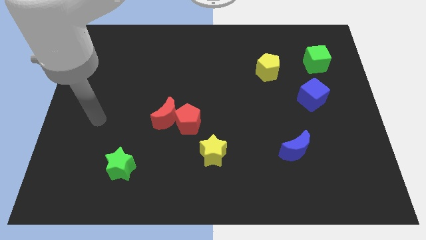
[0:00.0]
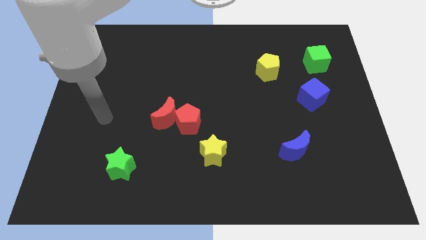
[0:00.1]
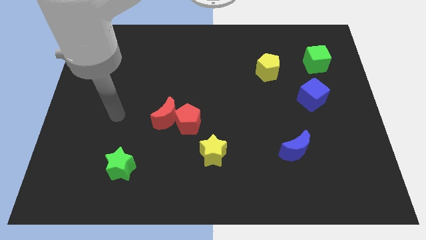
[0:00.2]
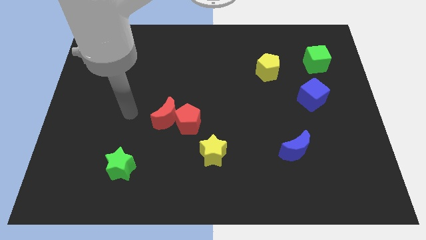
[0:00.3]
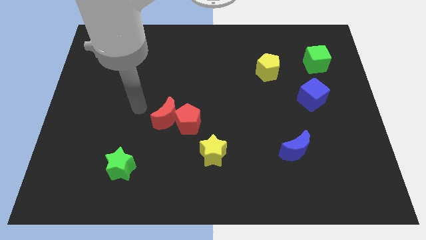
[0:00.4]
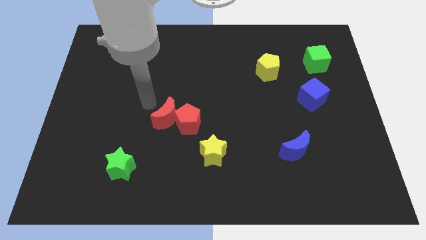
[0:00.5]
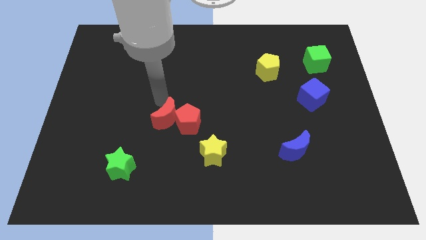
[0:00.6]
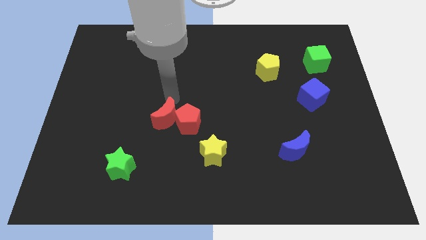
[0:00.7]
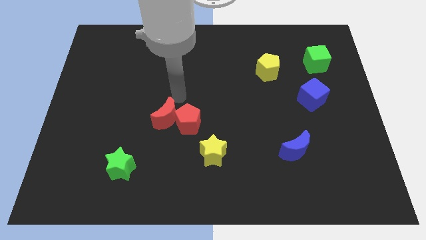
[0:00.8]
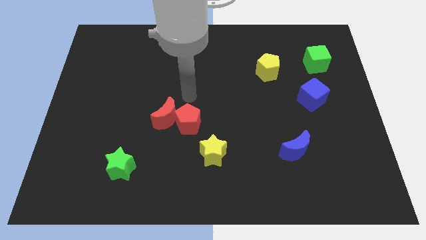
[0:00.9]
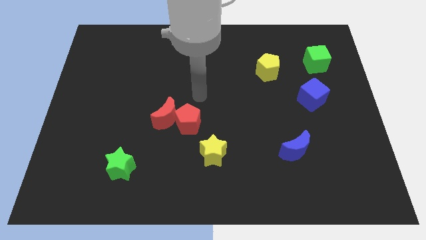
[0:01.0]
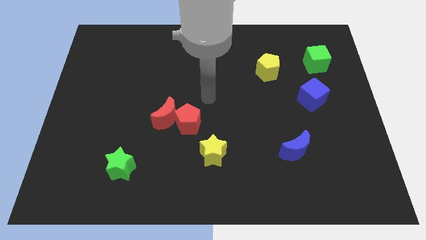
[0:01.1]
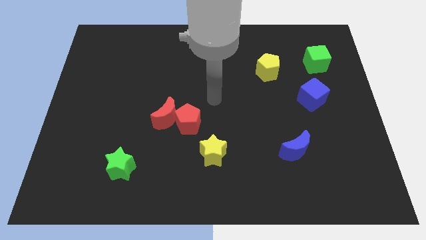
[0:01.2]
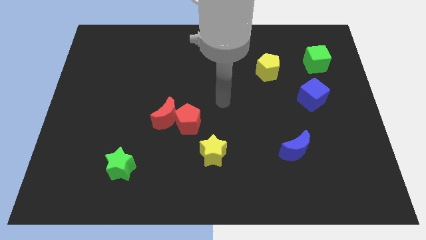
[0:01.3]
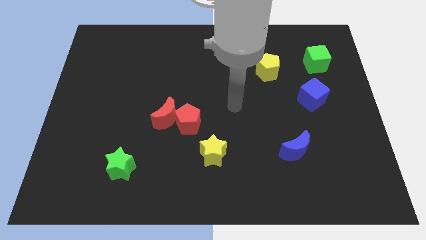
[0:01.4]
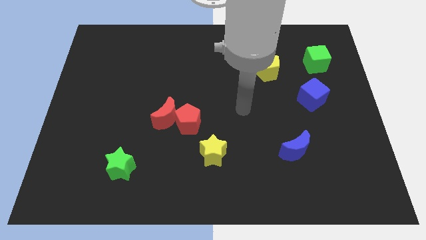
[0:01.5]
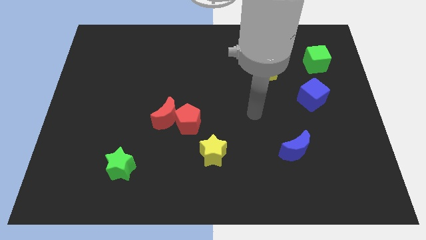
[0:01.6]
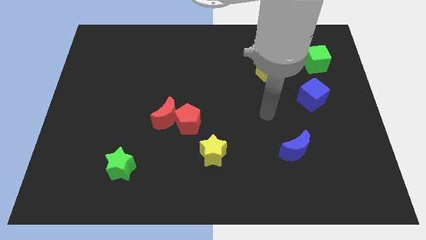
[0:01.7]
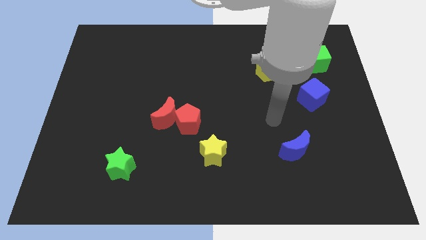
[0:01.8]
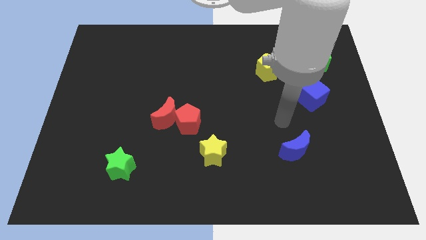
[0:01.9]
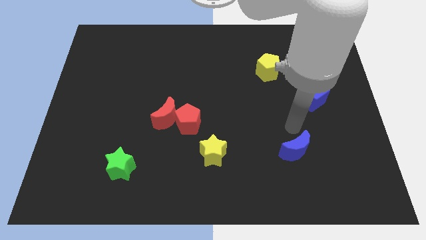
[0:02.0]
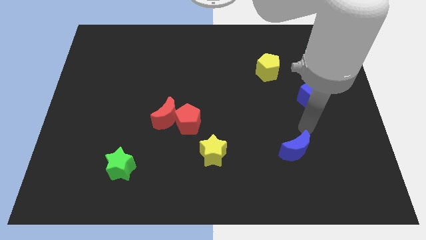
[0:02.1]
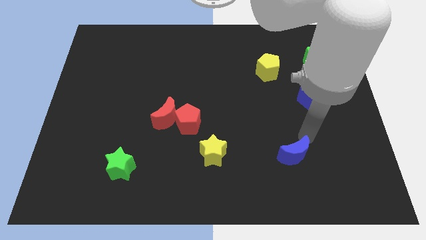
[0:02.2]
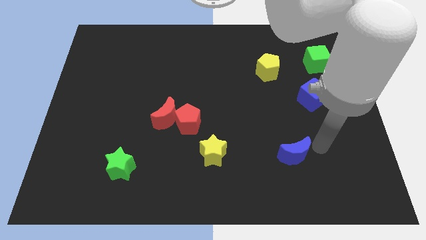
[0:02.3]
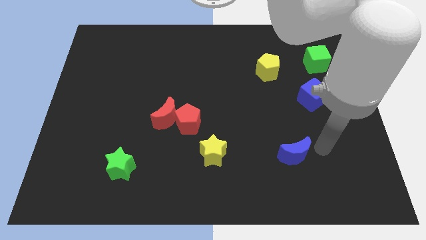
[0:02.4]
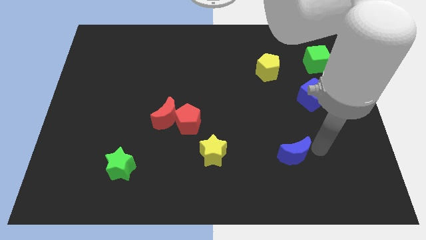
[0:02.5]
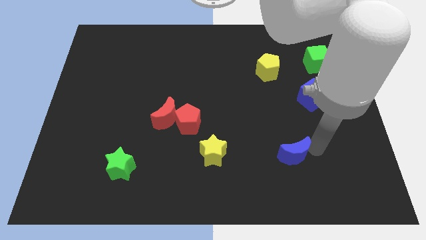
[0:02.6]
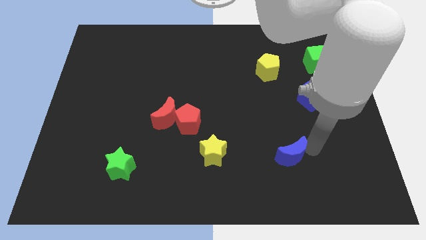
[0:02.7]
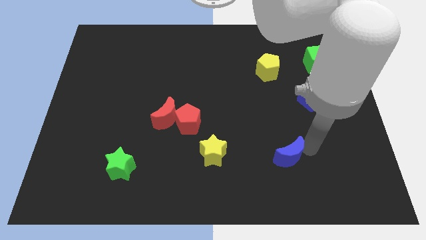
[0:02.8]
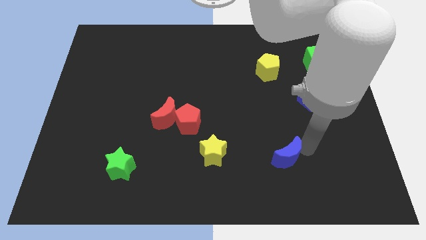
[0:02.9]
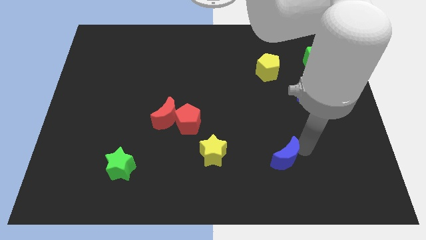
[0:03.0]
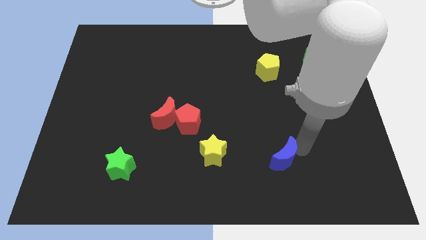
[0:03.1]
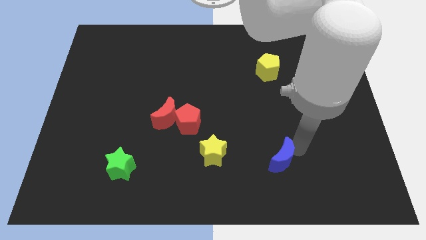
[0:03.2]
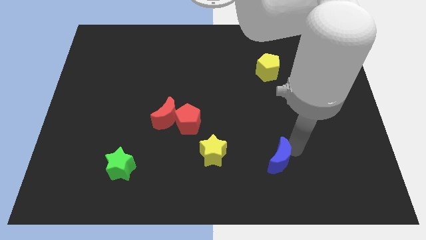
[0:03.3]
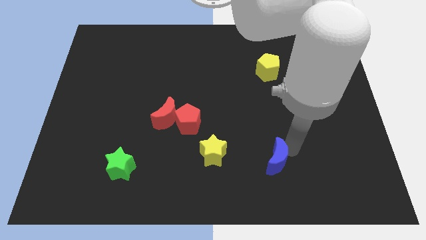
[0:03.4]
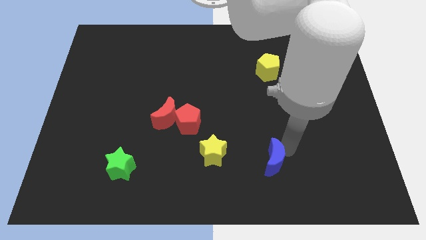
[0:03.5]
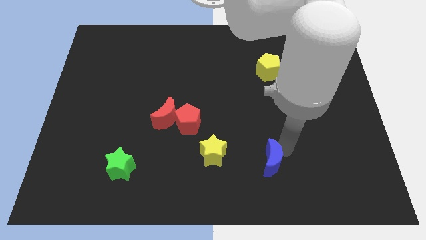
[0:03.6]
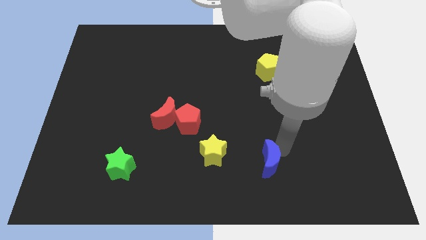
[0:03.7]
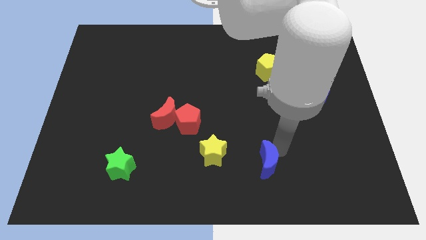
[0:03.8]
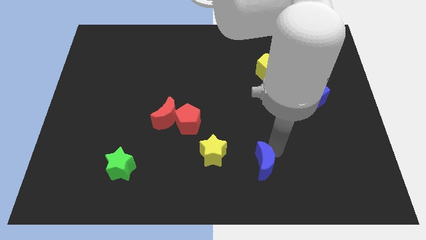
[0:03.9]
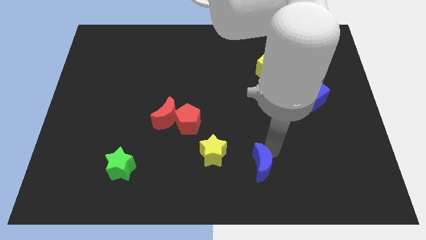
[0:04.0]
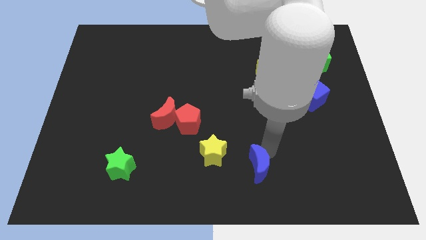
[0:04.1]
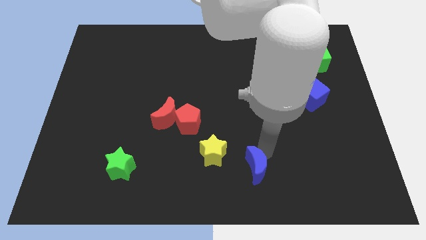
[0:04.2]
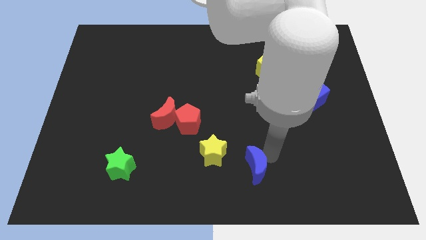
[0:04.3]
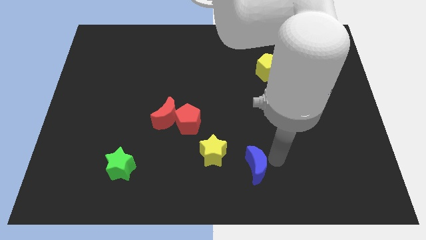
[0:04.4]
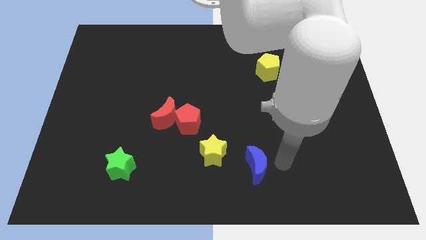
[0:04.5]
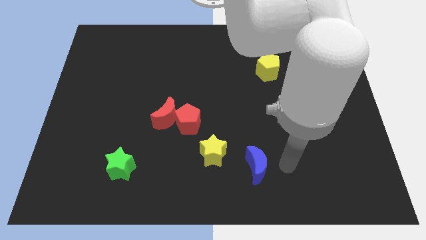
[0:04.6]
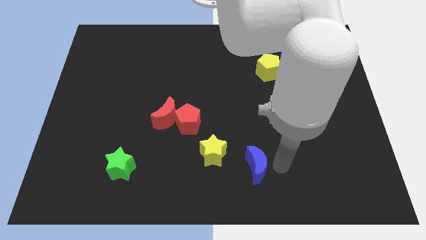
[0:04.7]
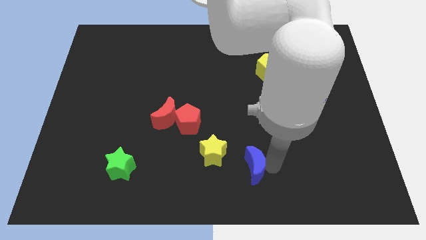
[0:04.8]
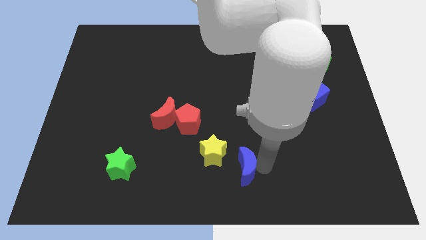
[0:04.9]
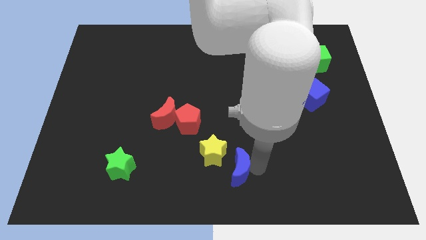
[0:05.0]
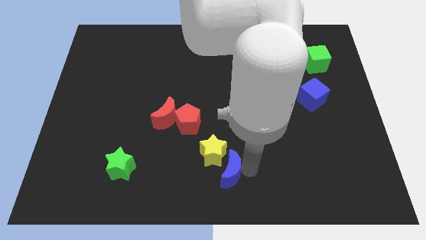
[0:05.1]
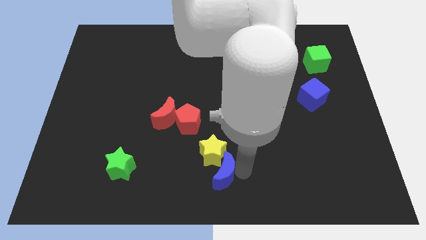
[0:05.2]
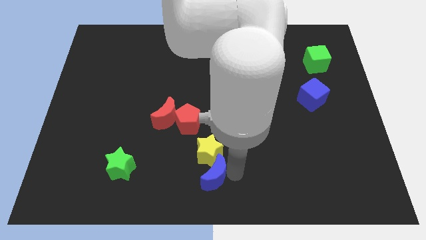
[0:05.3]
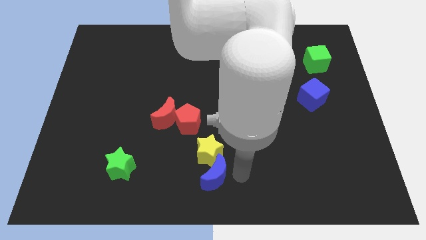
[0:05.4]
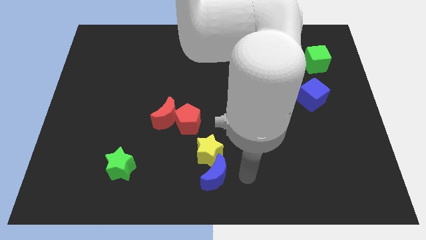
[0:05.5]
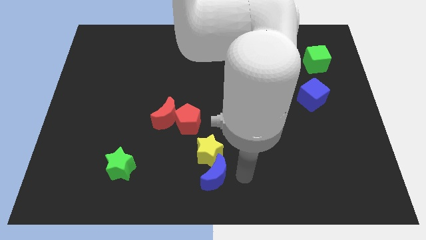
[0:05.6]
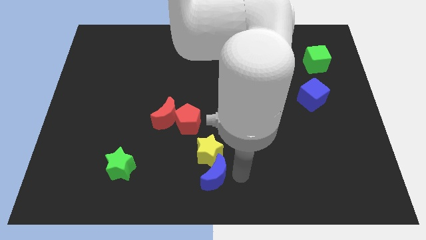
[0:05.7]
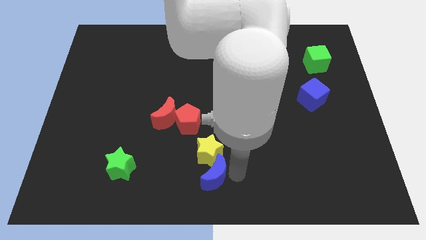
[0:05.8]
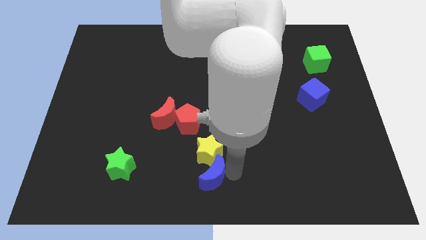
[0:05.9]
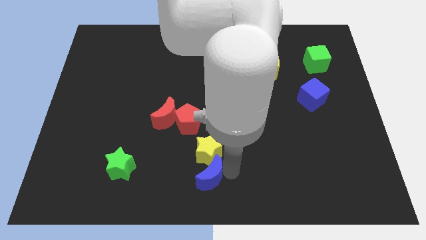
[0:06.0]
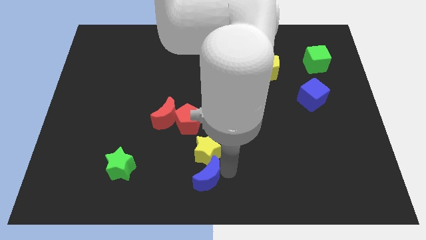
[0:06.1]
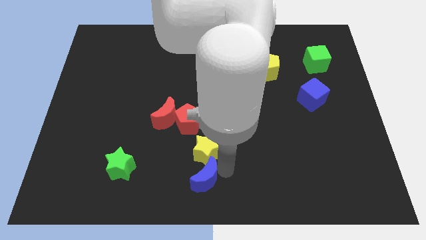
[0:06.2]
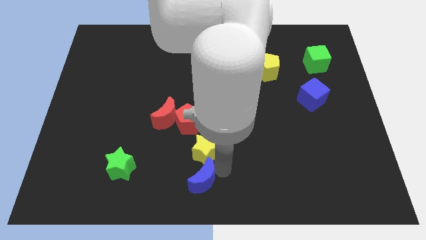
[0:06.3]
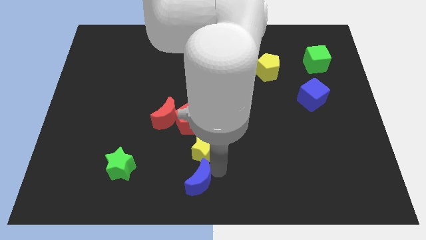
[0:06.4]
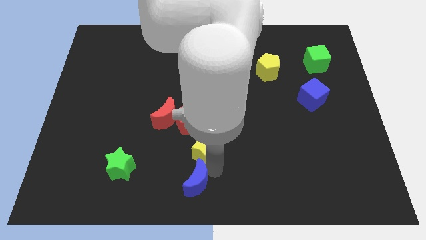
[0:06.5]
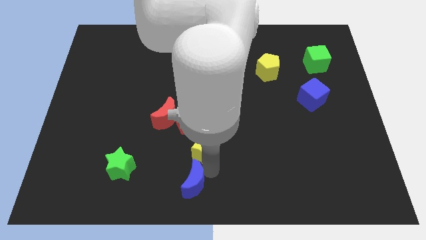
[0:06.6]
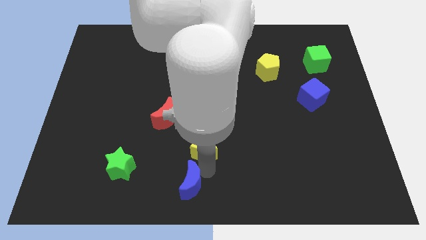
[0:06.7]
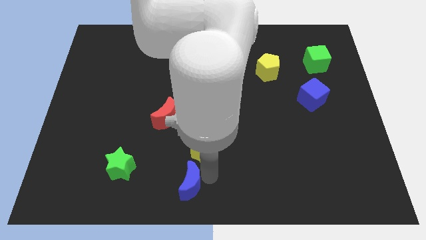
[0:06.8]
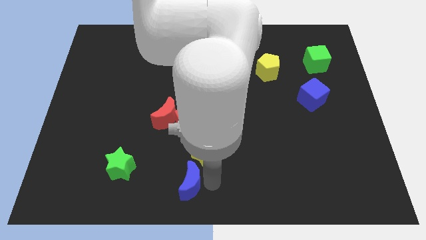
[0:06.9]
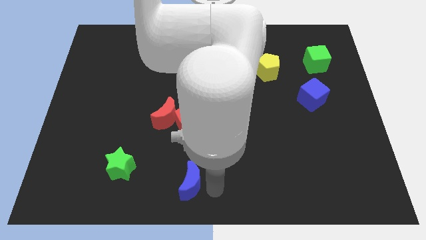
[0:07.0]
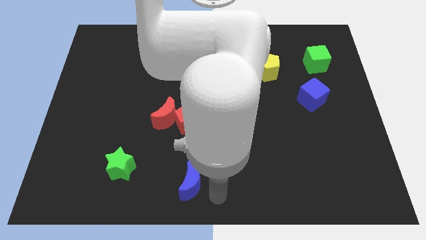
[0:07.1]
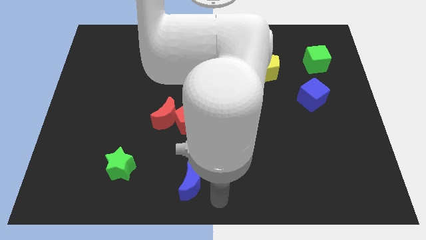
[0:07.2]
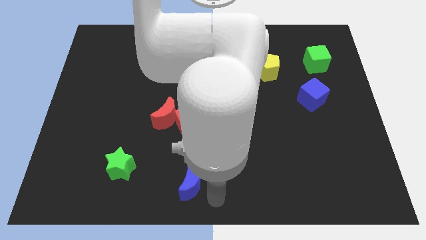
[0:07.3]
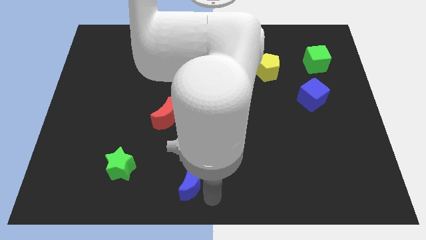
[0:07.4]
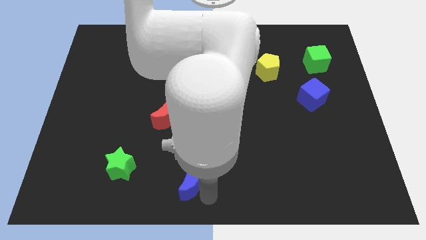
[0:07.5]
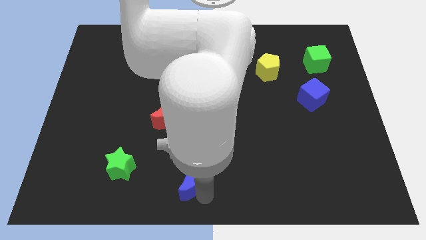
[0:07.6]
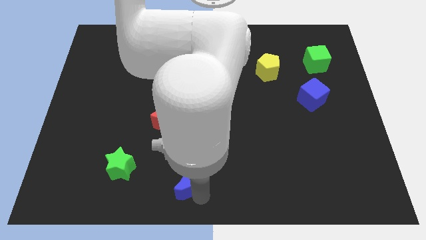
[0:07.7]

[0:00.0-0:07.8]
push the blue moon left

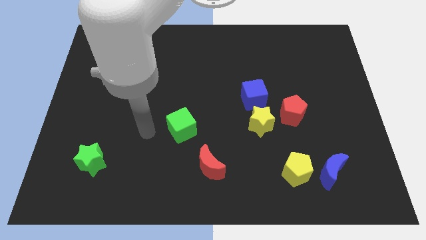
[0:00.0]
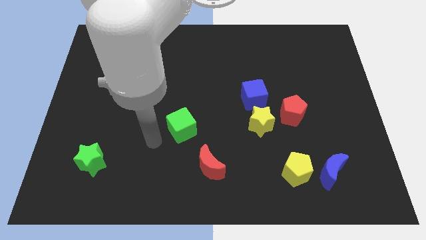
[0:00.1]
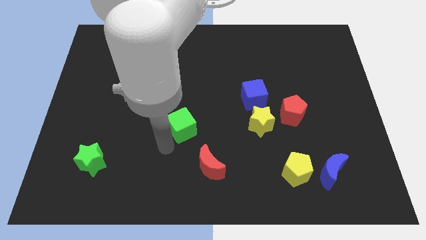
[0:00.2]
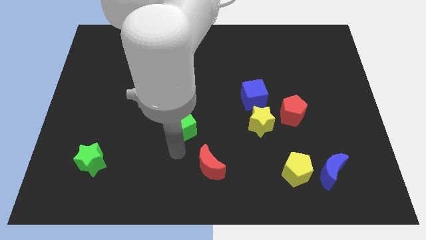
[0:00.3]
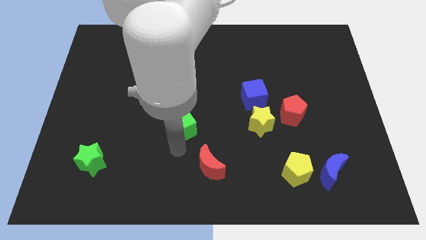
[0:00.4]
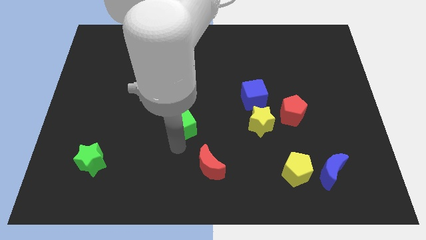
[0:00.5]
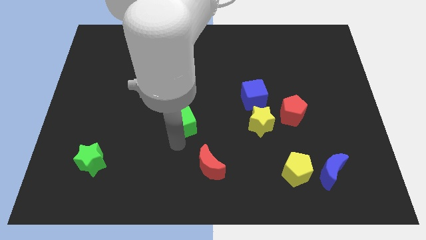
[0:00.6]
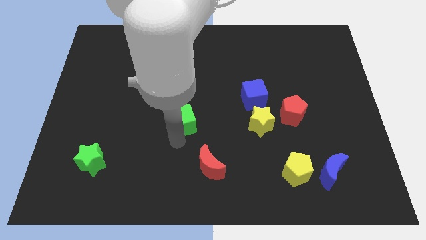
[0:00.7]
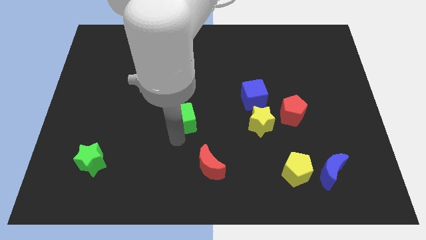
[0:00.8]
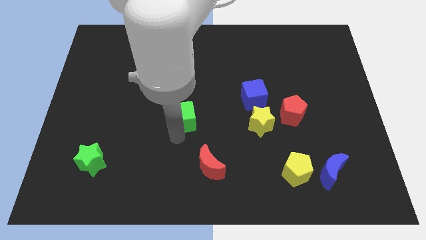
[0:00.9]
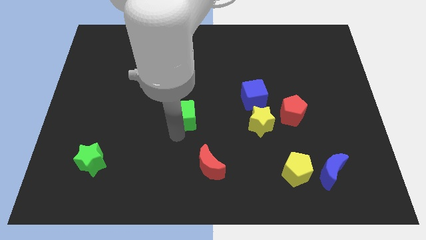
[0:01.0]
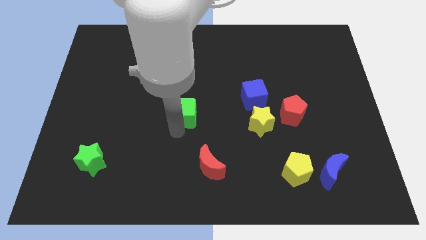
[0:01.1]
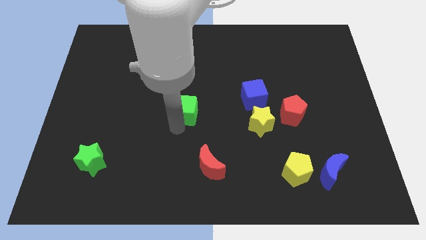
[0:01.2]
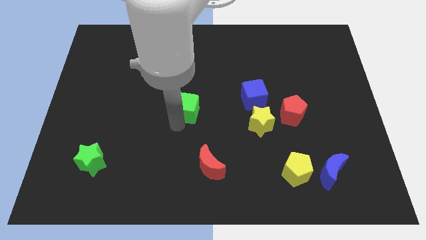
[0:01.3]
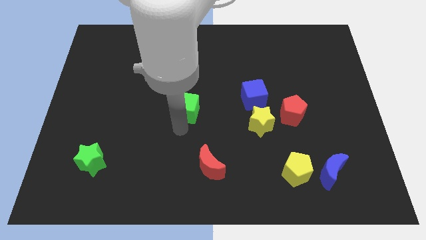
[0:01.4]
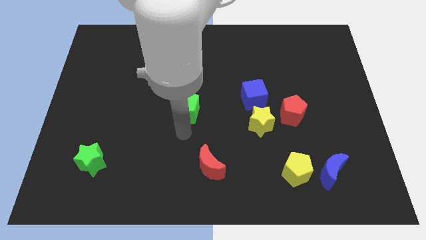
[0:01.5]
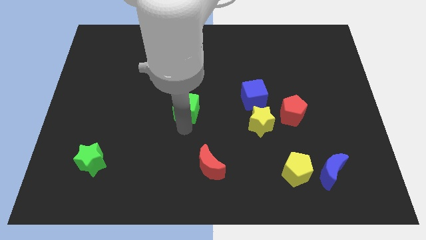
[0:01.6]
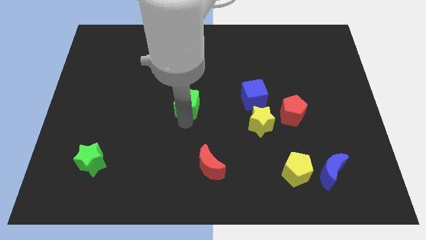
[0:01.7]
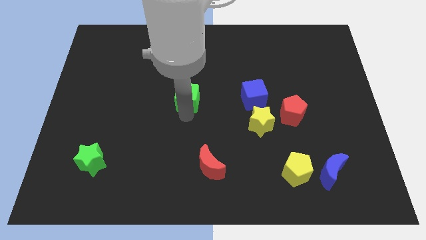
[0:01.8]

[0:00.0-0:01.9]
push the green cube up a little
